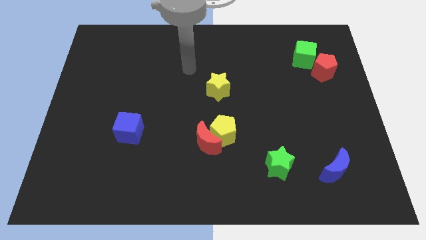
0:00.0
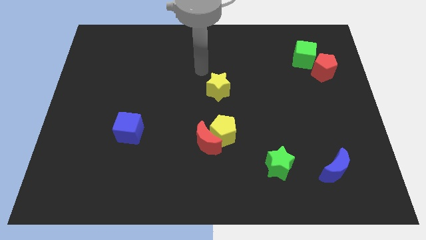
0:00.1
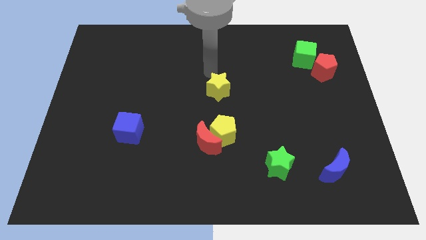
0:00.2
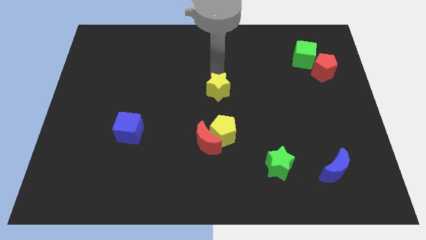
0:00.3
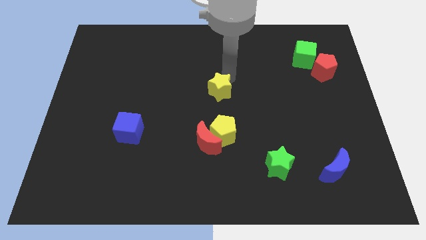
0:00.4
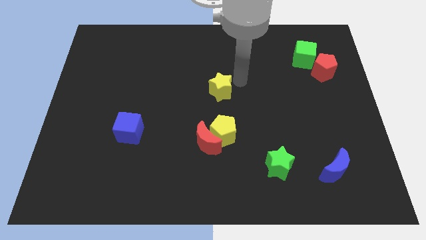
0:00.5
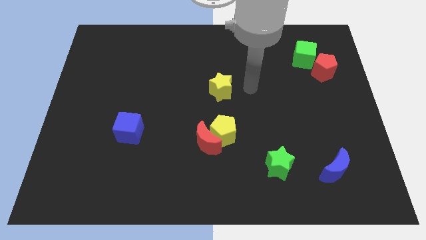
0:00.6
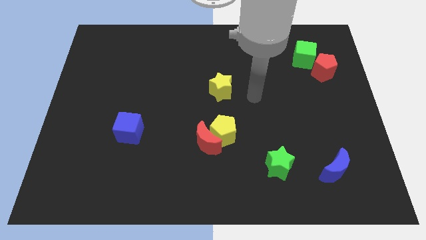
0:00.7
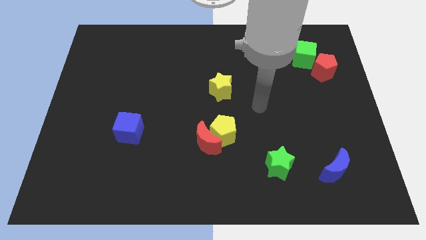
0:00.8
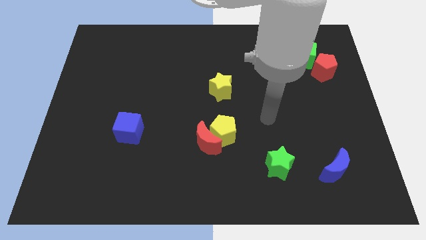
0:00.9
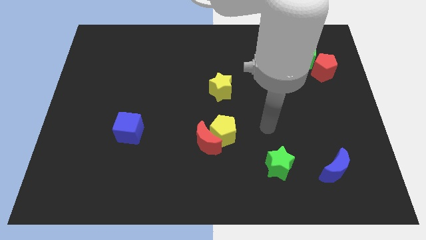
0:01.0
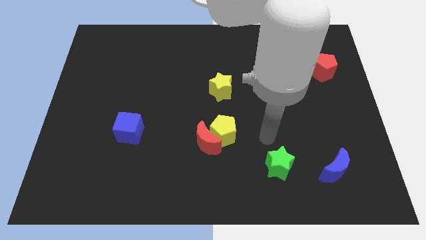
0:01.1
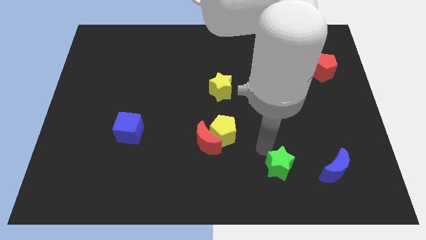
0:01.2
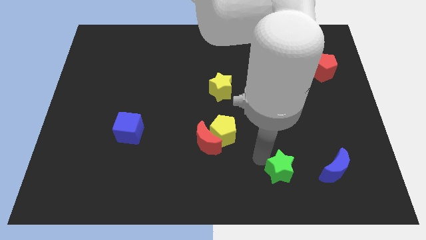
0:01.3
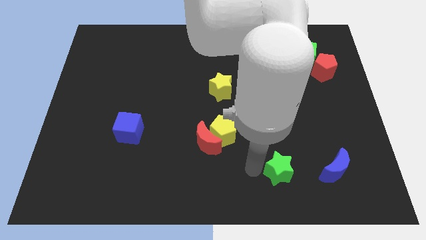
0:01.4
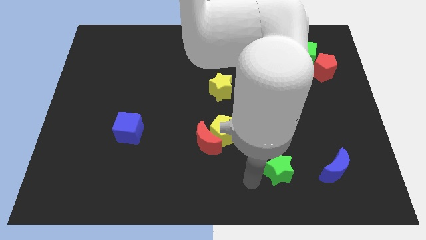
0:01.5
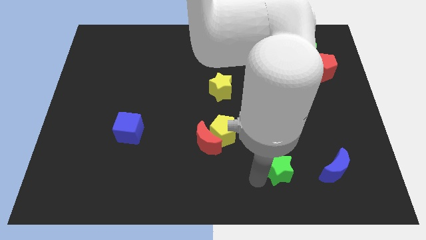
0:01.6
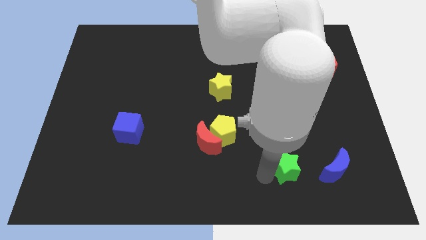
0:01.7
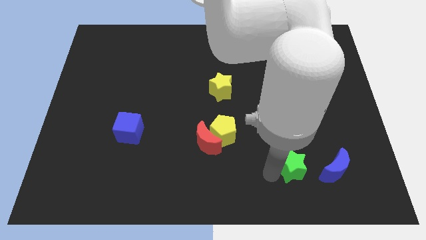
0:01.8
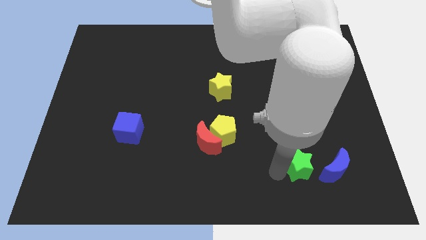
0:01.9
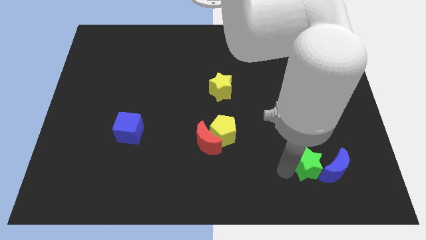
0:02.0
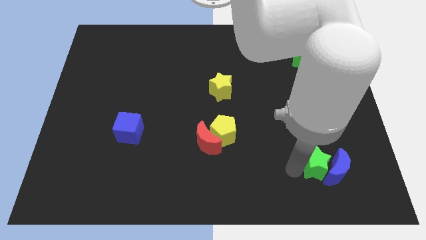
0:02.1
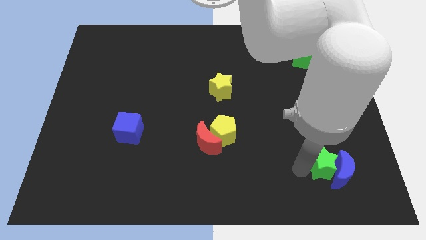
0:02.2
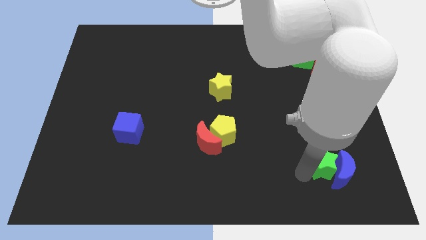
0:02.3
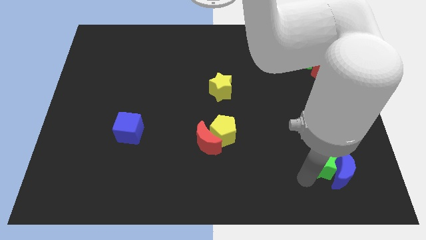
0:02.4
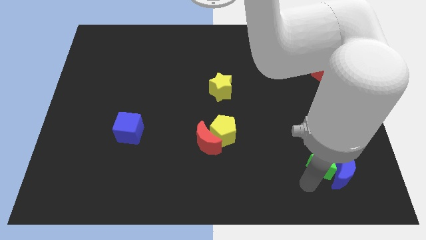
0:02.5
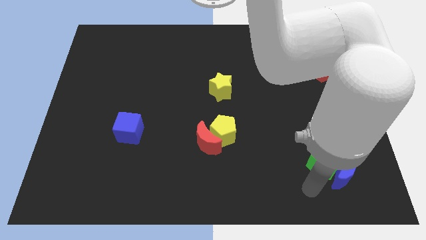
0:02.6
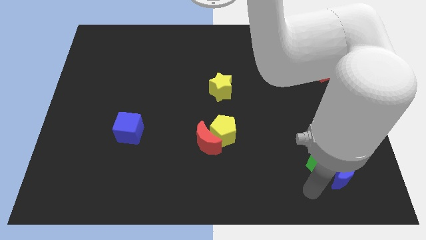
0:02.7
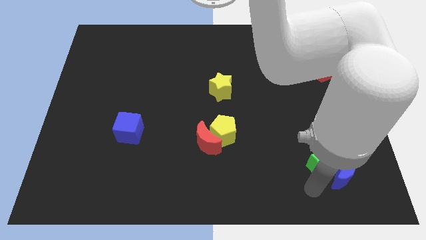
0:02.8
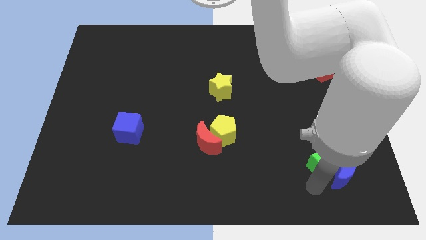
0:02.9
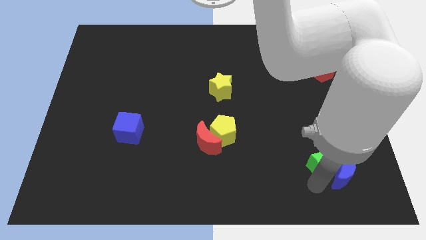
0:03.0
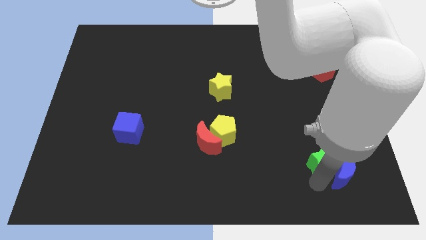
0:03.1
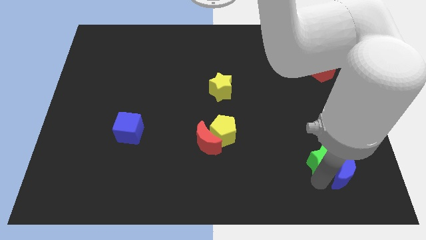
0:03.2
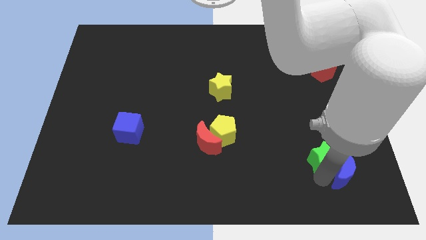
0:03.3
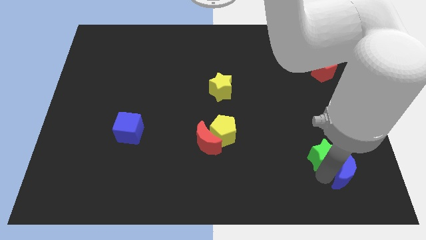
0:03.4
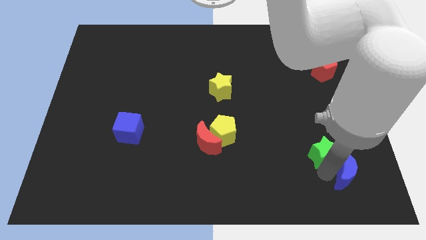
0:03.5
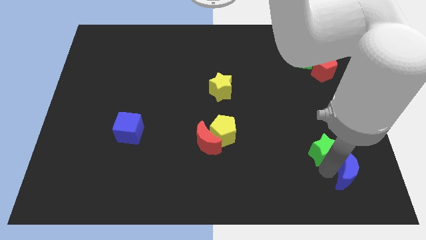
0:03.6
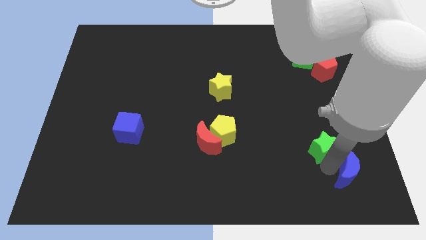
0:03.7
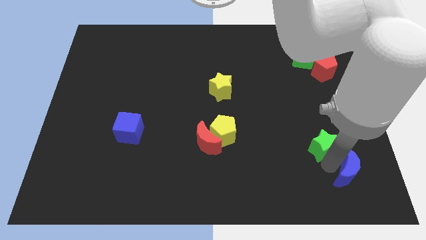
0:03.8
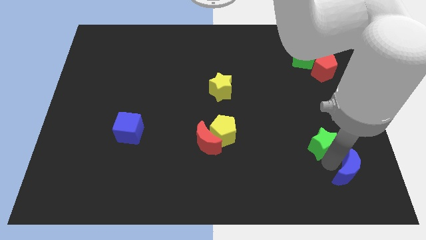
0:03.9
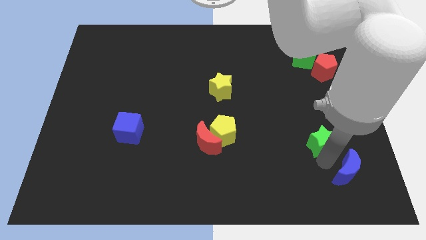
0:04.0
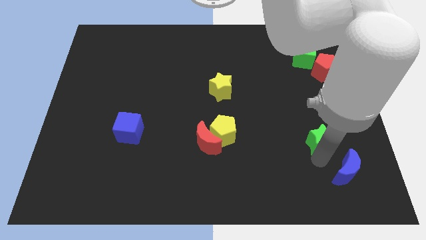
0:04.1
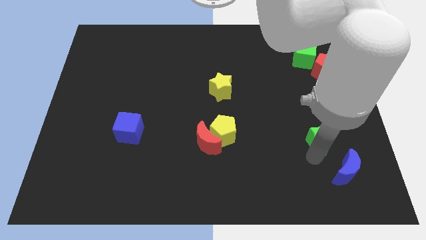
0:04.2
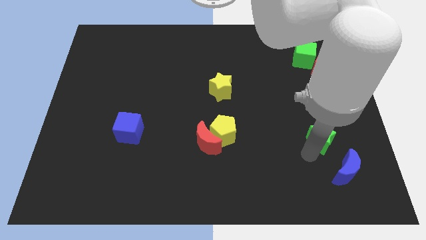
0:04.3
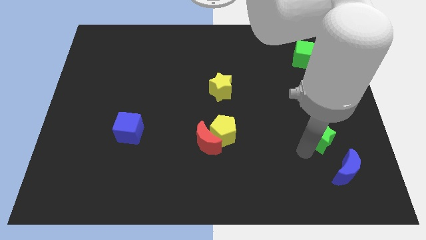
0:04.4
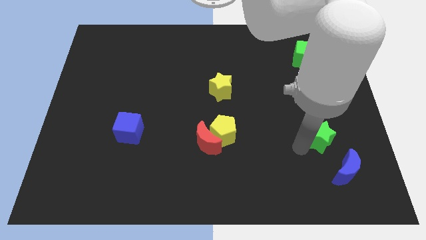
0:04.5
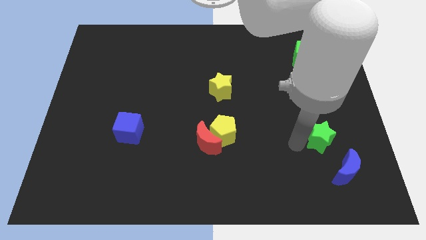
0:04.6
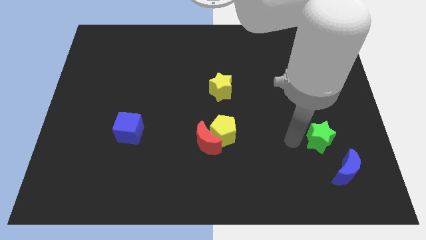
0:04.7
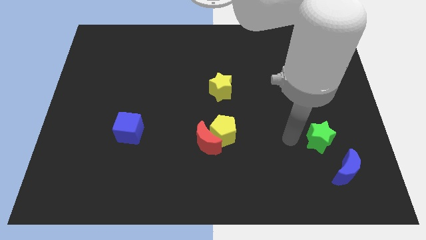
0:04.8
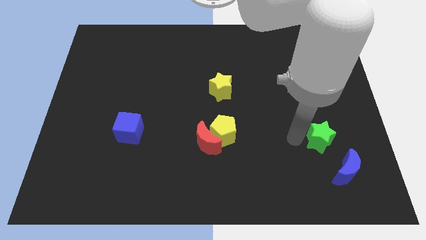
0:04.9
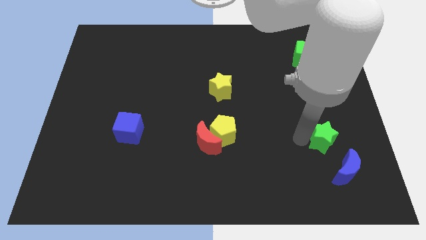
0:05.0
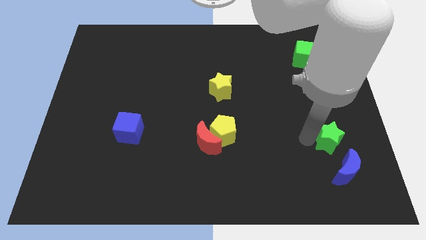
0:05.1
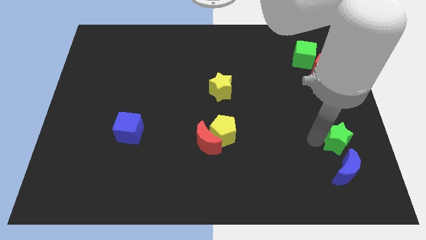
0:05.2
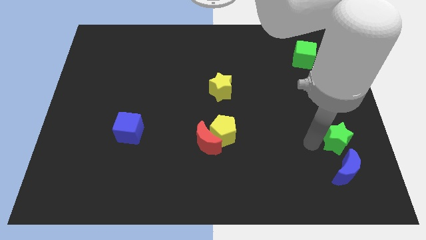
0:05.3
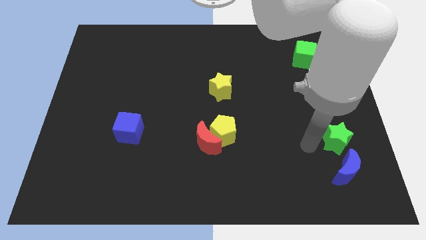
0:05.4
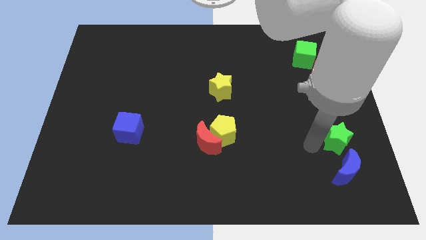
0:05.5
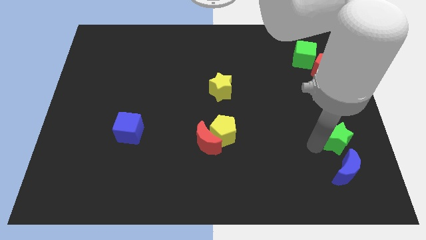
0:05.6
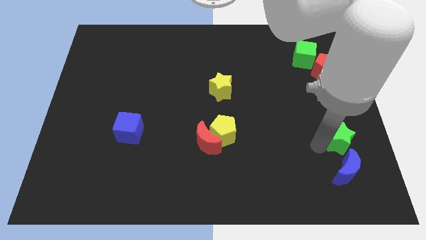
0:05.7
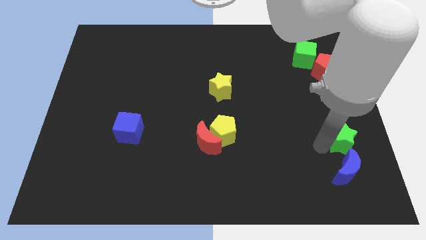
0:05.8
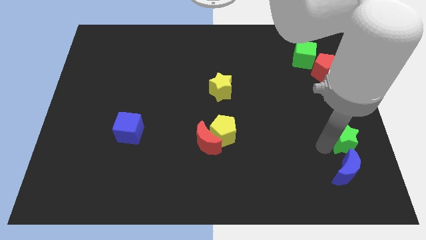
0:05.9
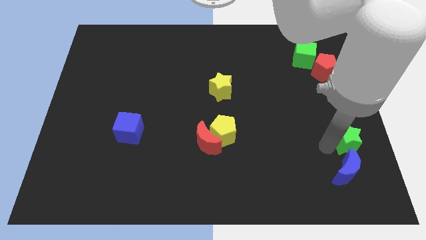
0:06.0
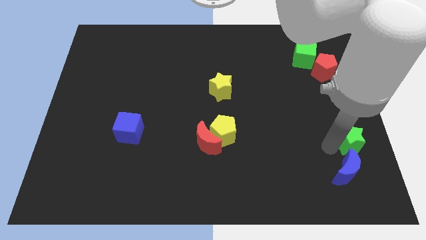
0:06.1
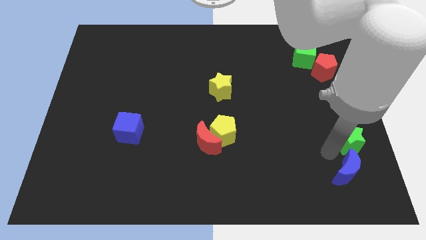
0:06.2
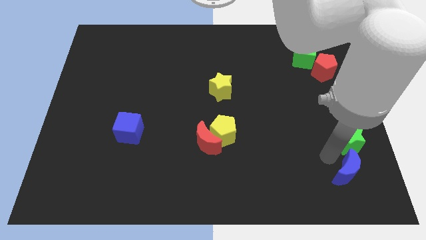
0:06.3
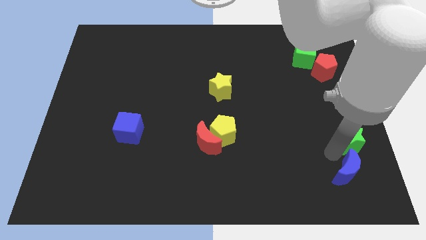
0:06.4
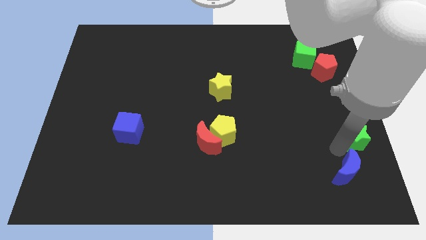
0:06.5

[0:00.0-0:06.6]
push the green star to the right side of the board

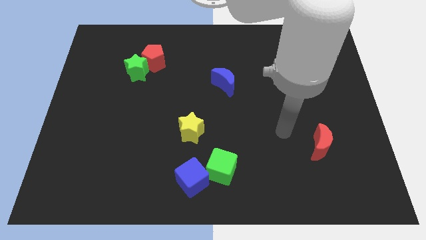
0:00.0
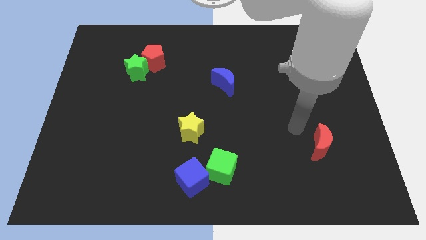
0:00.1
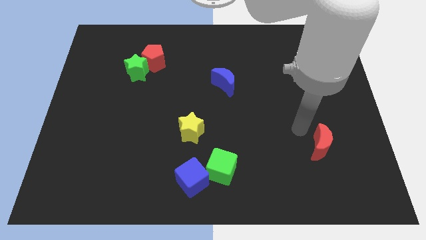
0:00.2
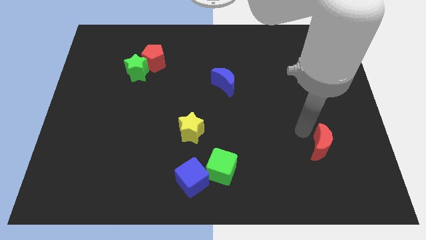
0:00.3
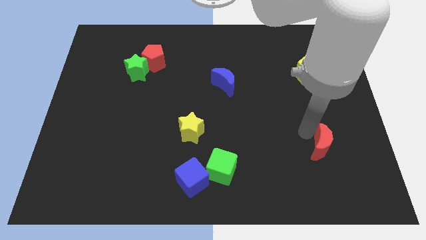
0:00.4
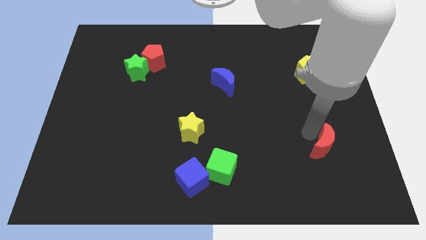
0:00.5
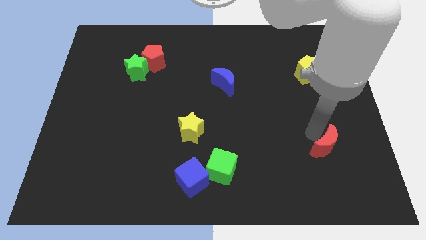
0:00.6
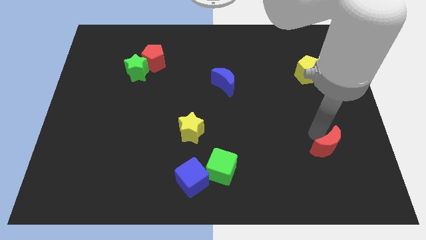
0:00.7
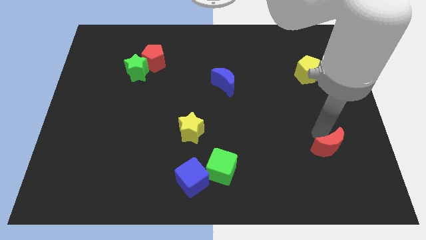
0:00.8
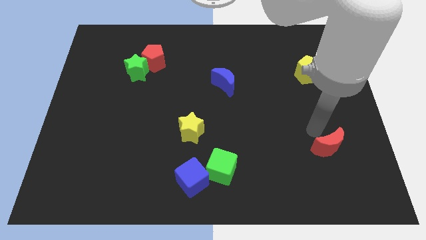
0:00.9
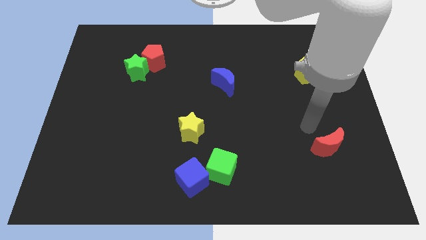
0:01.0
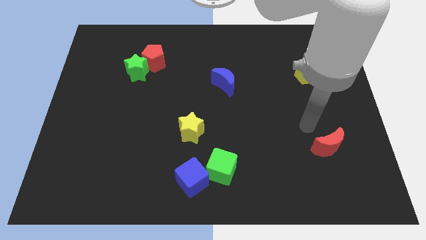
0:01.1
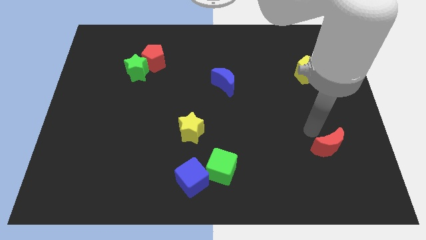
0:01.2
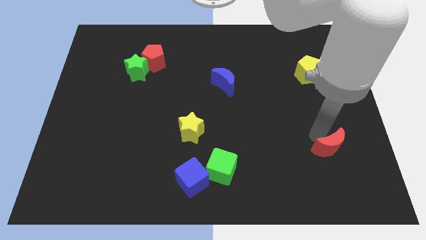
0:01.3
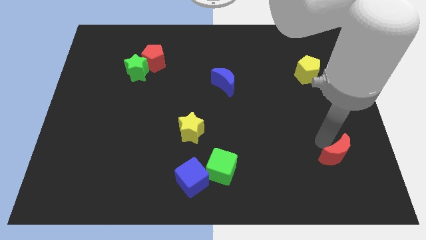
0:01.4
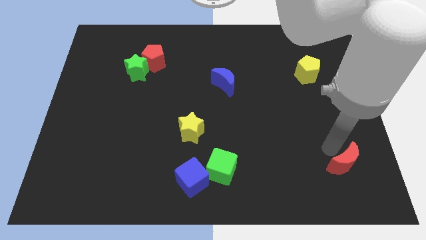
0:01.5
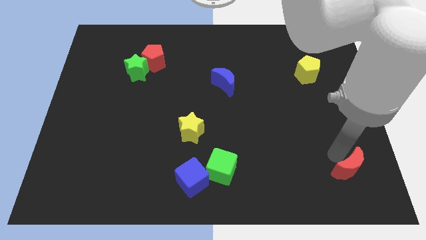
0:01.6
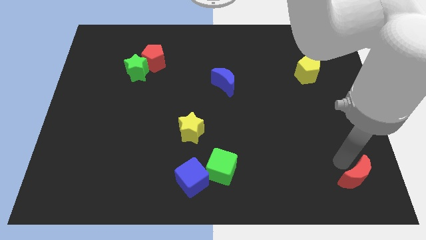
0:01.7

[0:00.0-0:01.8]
slide the red moon to the lower right corner
